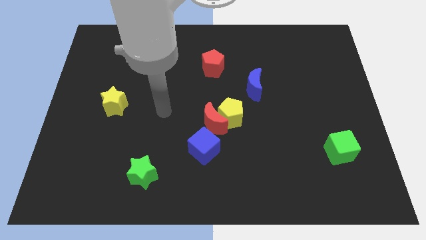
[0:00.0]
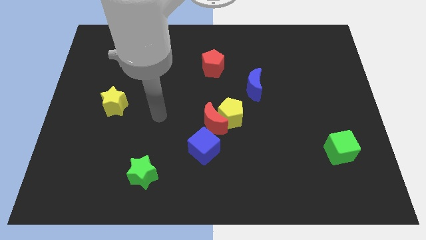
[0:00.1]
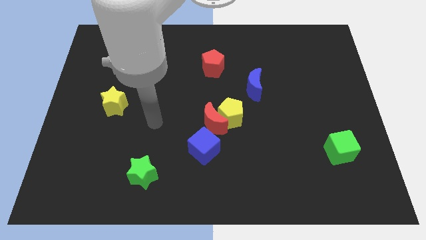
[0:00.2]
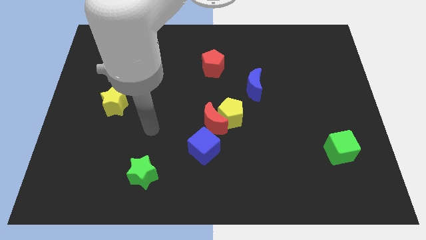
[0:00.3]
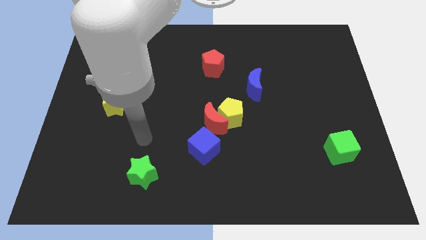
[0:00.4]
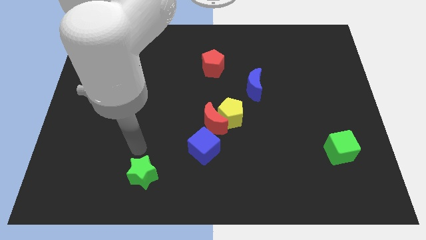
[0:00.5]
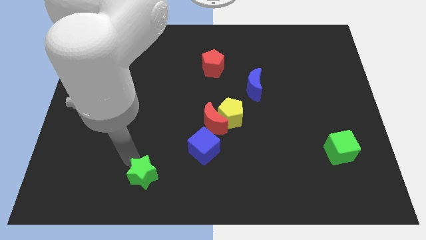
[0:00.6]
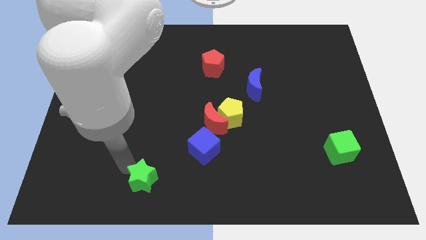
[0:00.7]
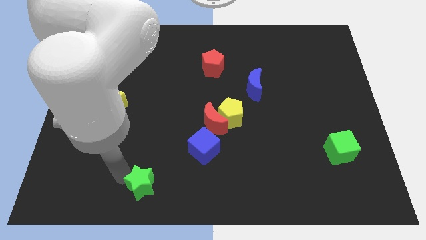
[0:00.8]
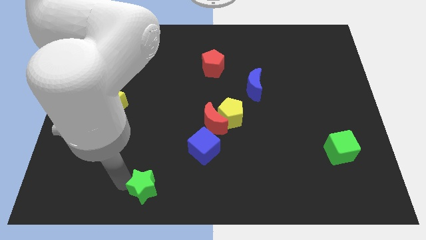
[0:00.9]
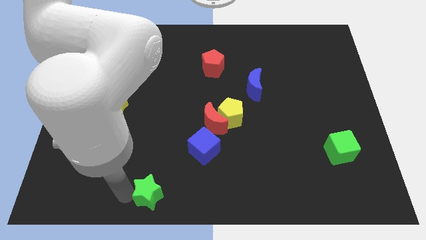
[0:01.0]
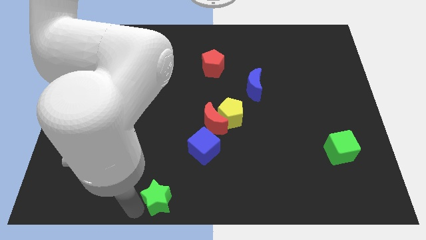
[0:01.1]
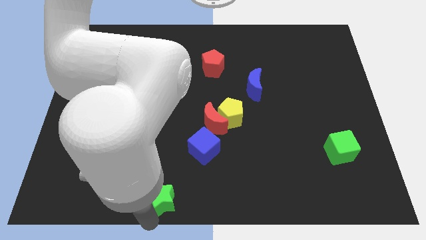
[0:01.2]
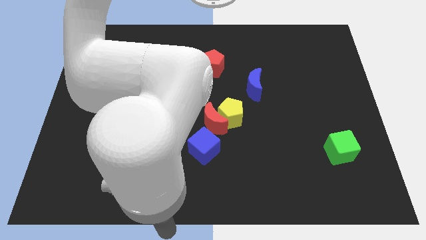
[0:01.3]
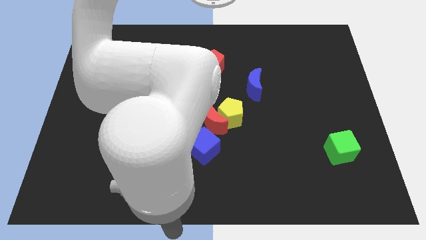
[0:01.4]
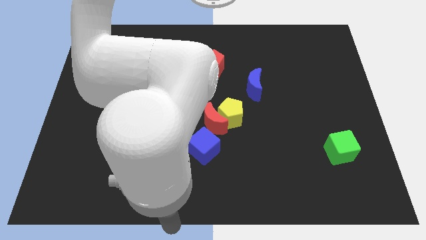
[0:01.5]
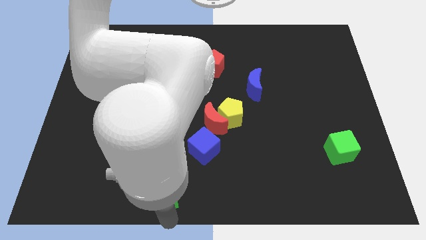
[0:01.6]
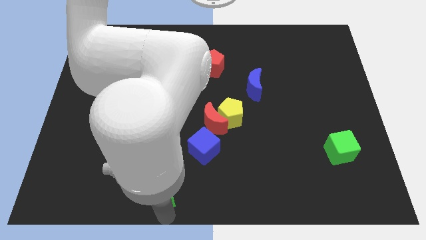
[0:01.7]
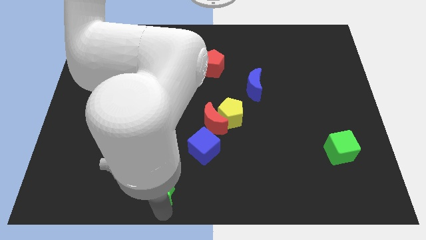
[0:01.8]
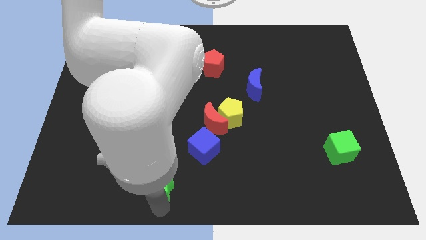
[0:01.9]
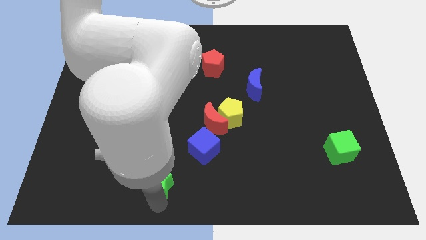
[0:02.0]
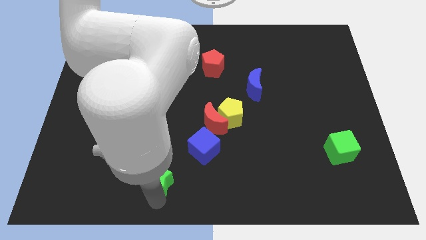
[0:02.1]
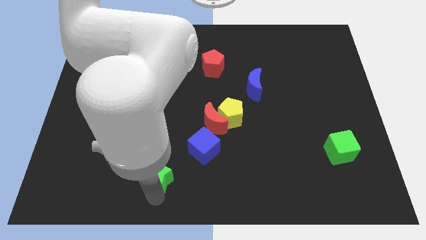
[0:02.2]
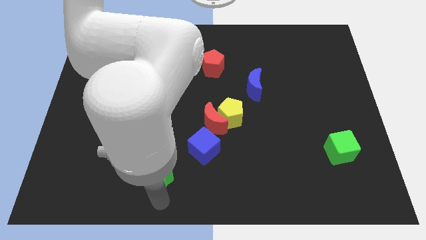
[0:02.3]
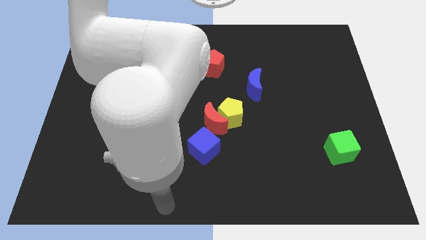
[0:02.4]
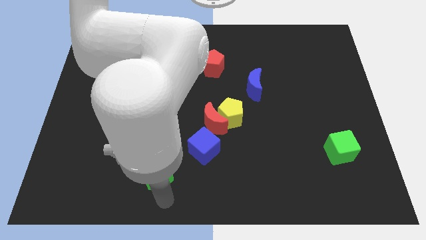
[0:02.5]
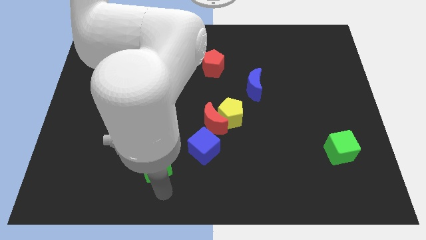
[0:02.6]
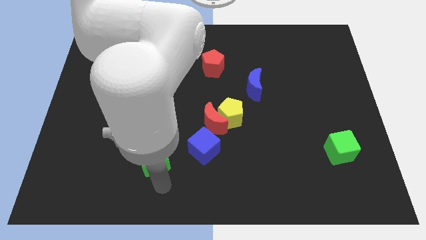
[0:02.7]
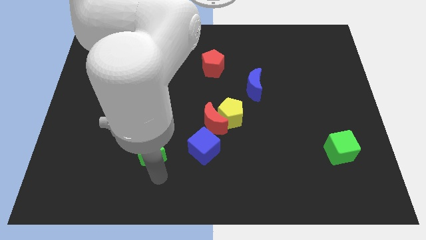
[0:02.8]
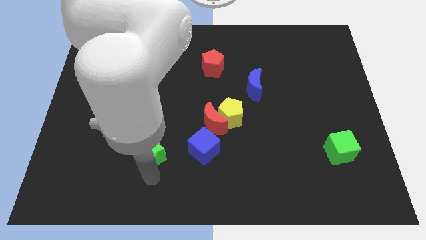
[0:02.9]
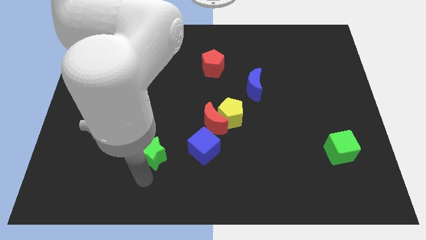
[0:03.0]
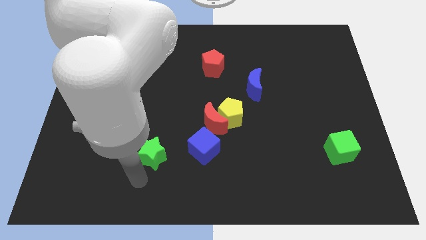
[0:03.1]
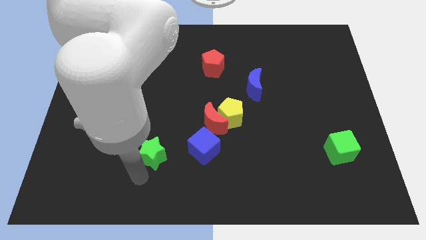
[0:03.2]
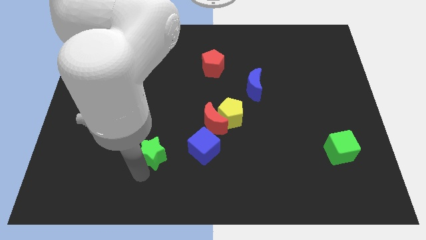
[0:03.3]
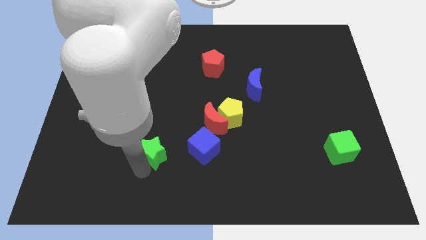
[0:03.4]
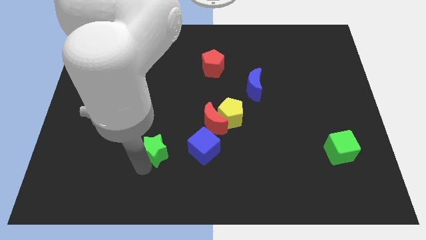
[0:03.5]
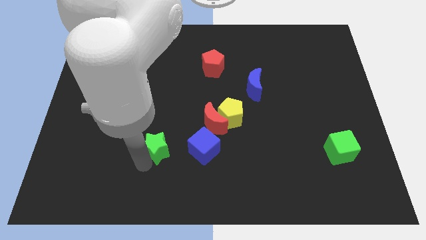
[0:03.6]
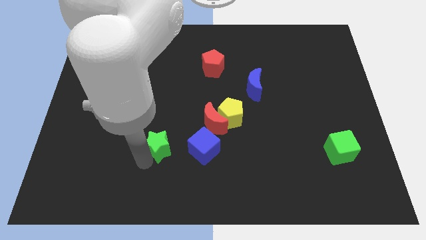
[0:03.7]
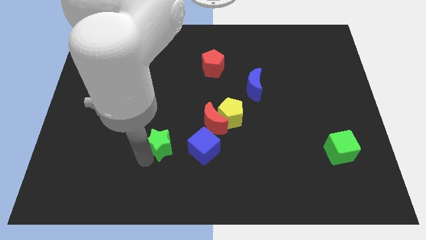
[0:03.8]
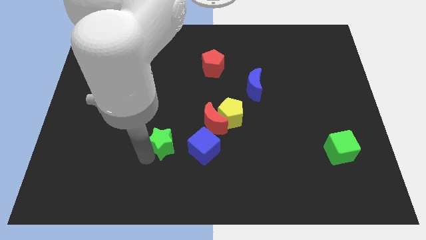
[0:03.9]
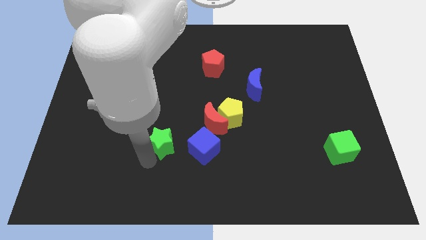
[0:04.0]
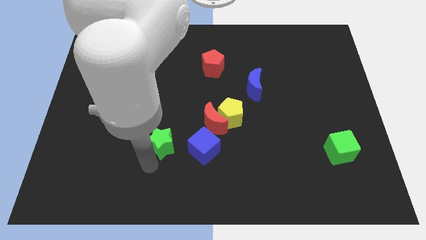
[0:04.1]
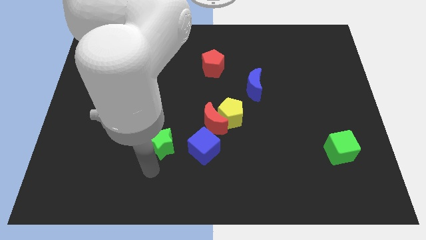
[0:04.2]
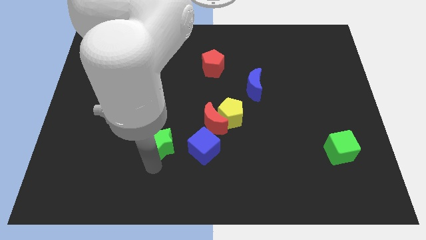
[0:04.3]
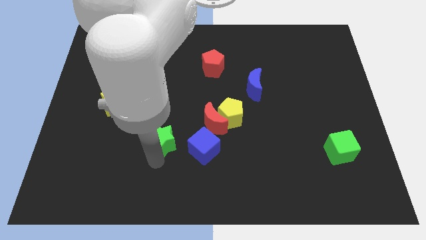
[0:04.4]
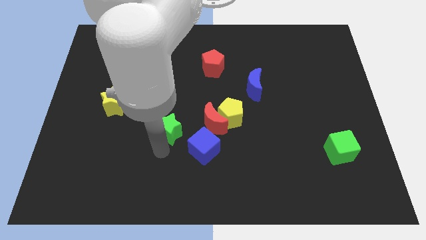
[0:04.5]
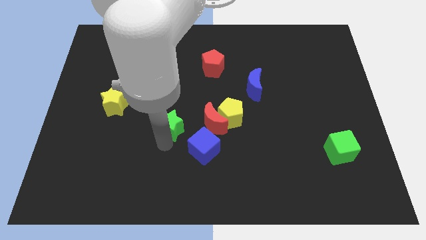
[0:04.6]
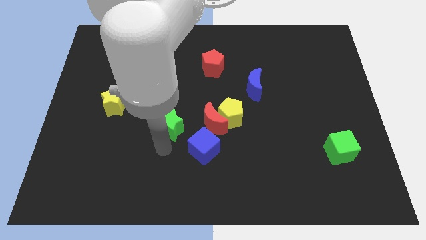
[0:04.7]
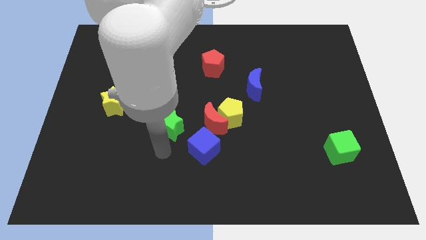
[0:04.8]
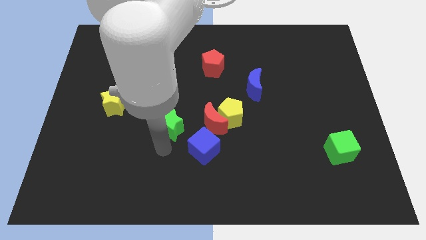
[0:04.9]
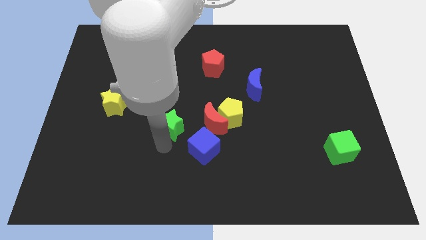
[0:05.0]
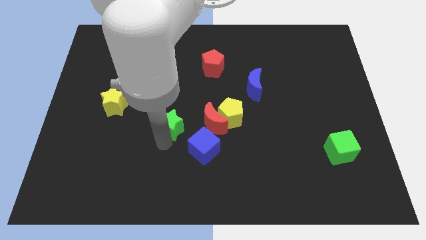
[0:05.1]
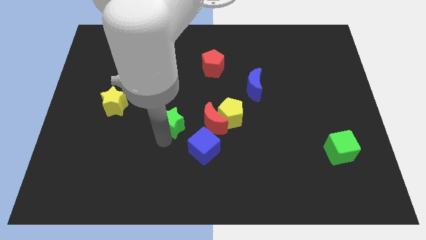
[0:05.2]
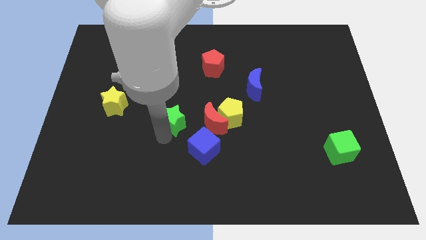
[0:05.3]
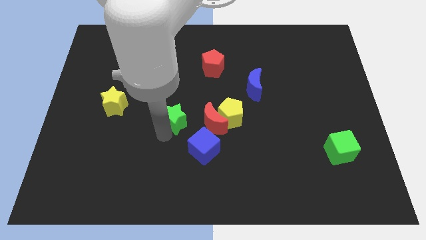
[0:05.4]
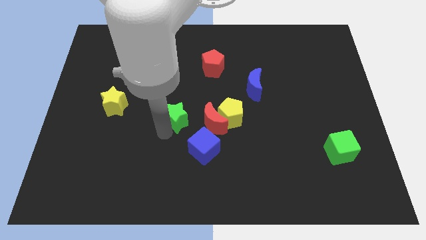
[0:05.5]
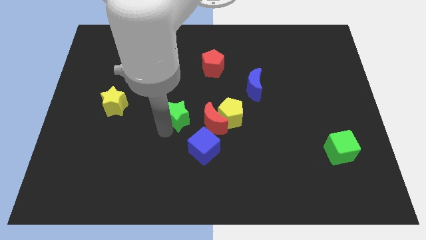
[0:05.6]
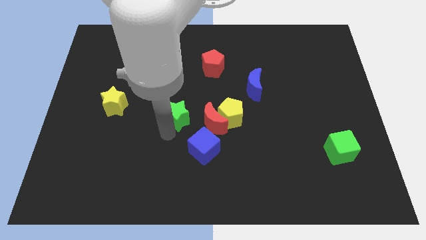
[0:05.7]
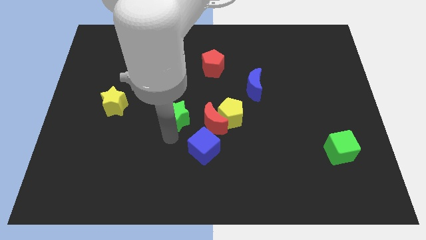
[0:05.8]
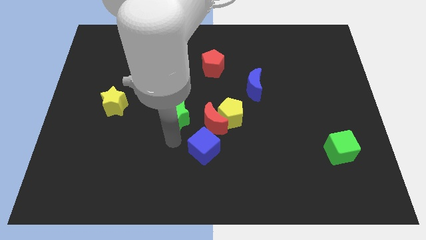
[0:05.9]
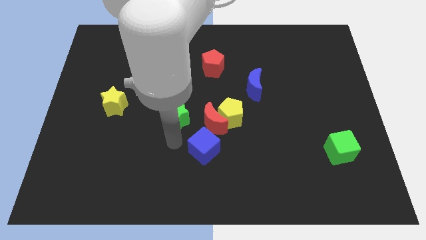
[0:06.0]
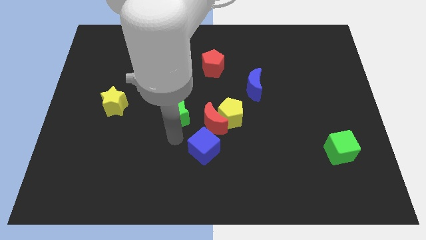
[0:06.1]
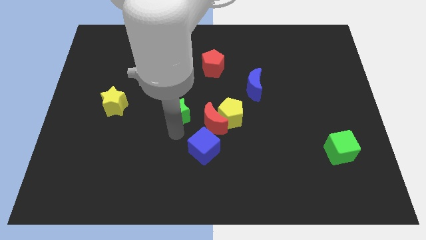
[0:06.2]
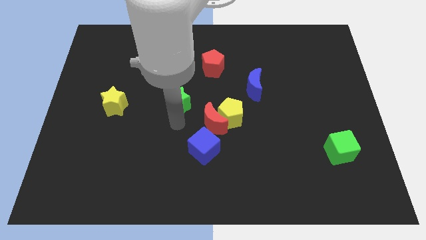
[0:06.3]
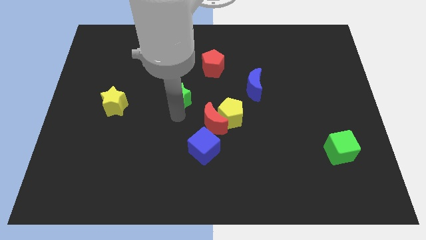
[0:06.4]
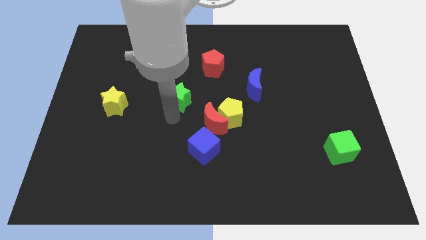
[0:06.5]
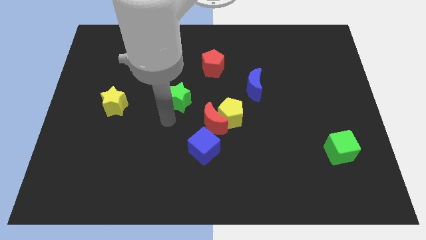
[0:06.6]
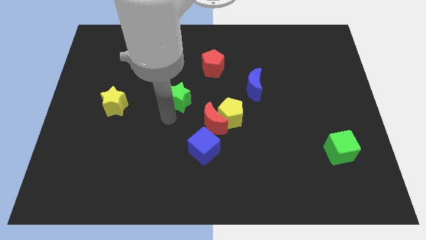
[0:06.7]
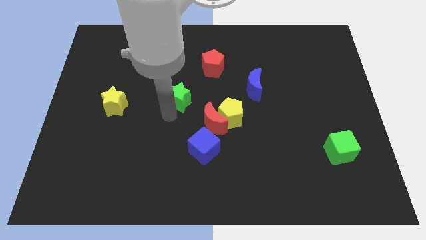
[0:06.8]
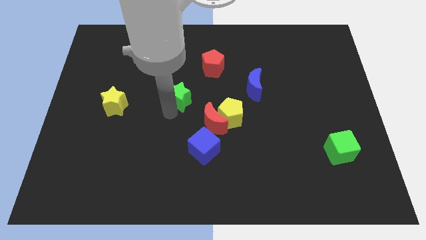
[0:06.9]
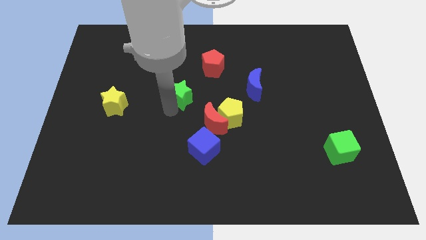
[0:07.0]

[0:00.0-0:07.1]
slide the green star to the bottom left of the red pentagon

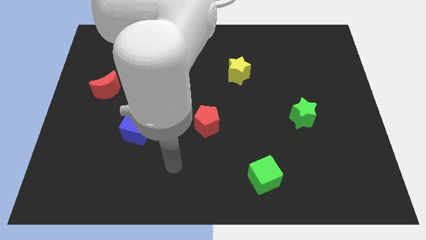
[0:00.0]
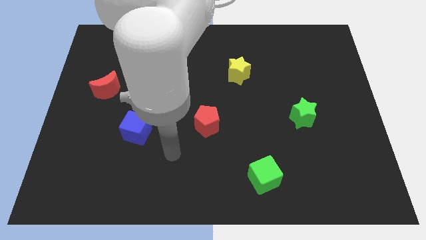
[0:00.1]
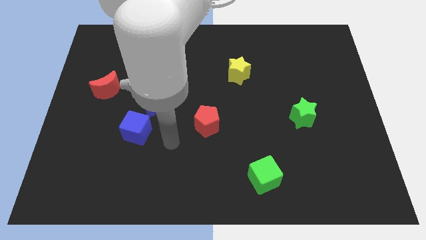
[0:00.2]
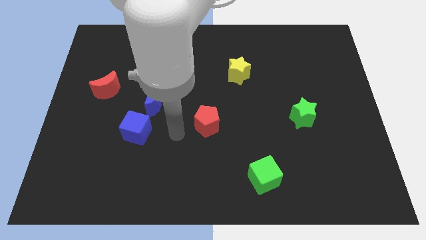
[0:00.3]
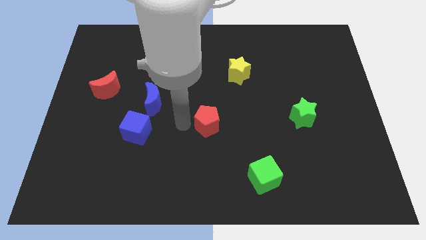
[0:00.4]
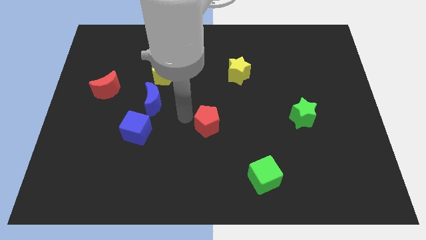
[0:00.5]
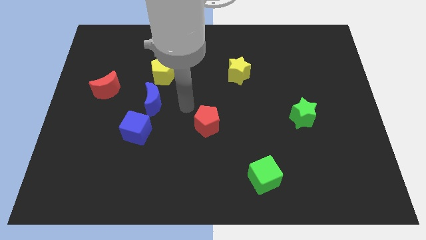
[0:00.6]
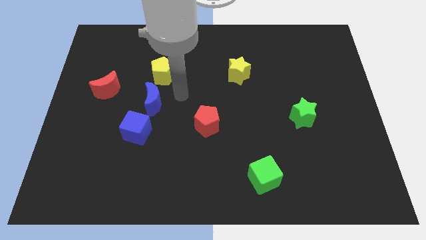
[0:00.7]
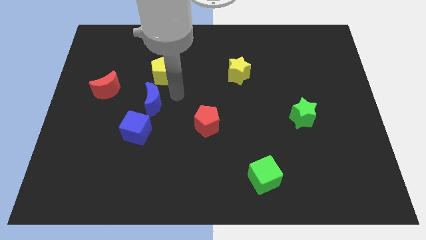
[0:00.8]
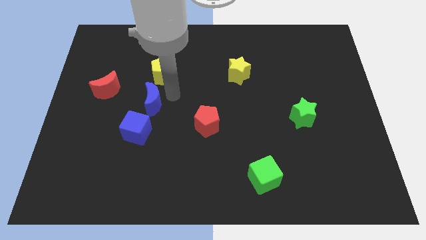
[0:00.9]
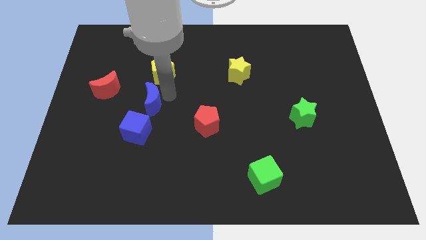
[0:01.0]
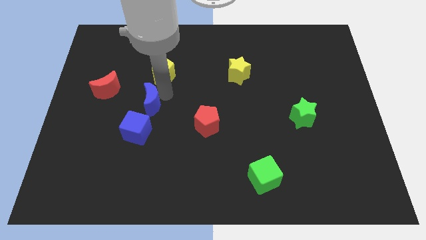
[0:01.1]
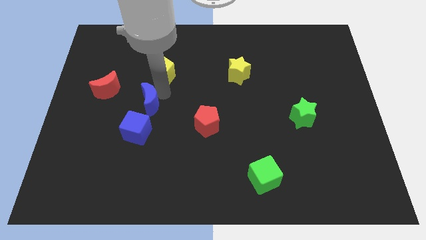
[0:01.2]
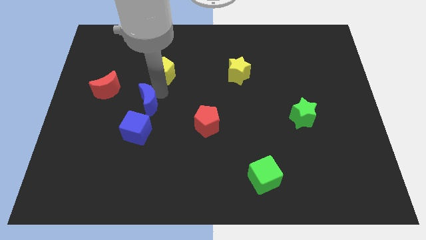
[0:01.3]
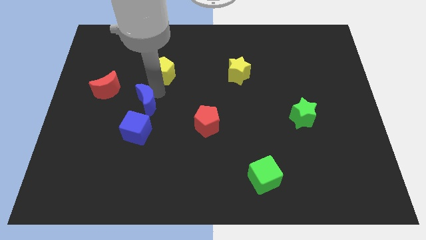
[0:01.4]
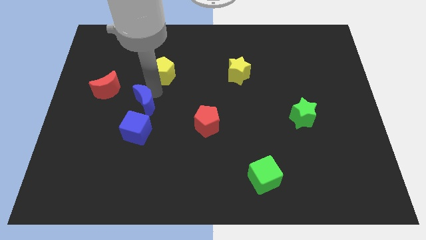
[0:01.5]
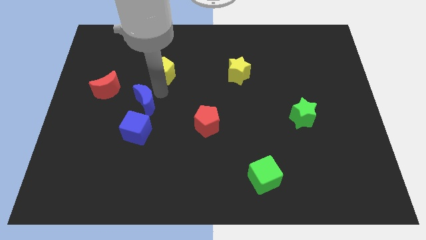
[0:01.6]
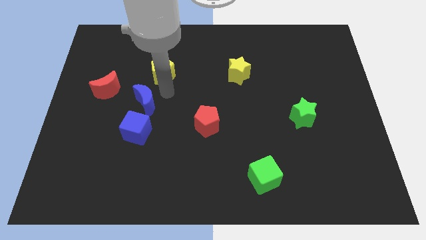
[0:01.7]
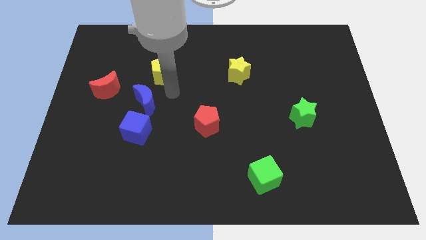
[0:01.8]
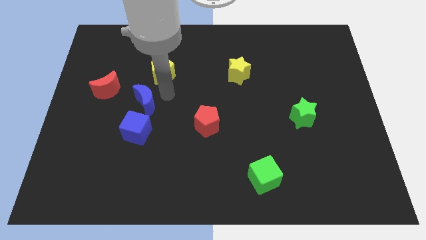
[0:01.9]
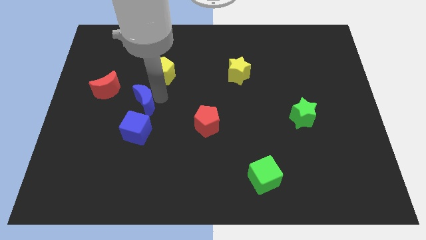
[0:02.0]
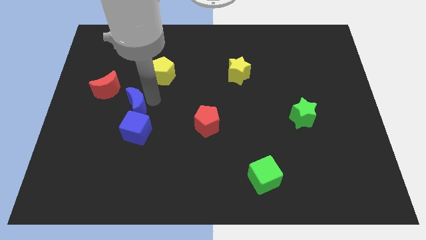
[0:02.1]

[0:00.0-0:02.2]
move the blue moon to the top left side of the blue cube
